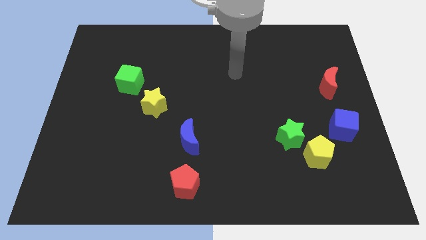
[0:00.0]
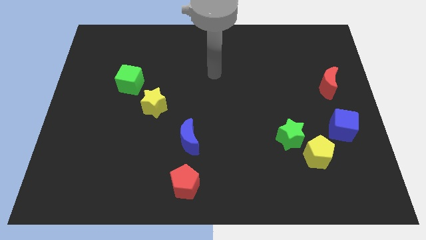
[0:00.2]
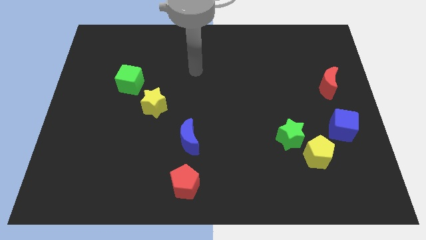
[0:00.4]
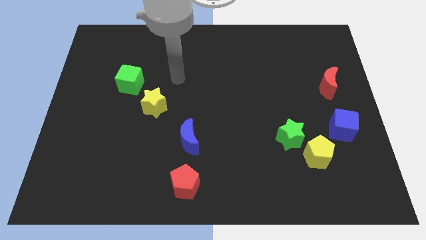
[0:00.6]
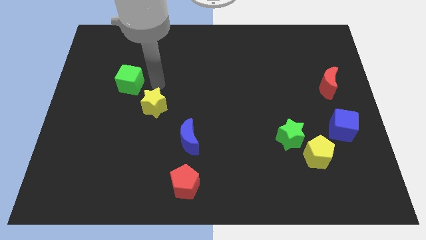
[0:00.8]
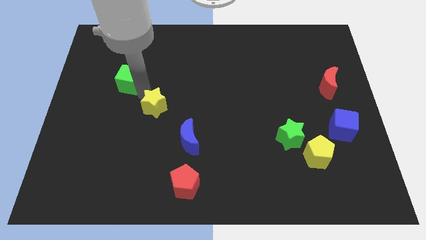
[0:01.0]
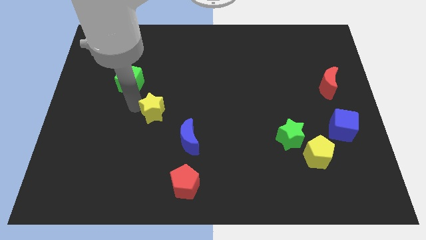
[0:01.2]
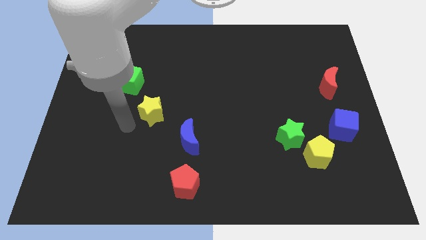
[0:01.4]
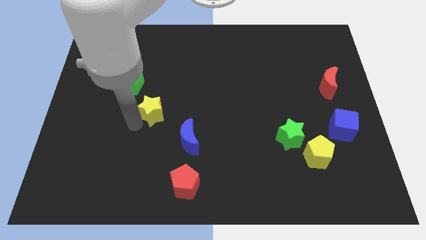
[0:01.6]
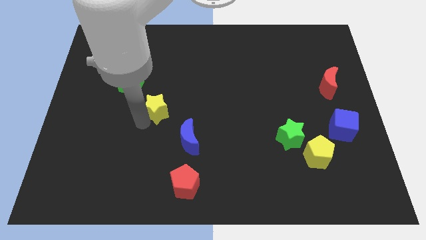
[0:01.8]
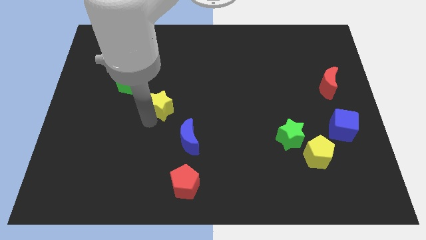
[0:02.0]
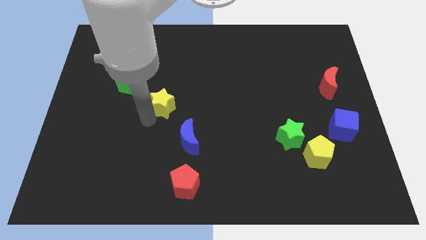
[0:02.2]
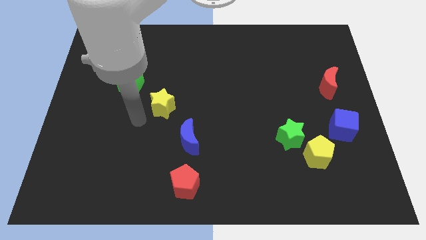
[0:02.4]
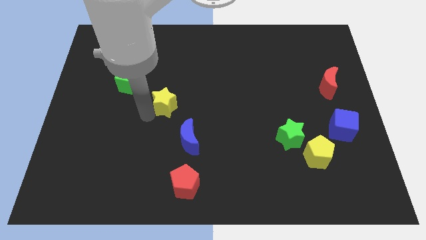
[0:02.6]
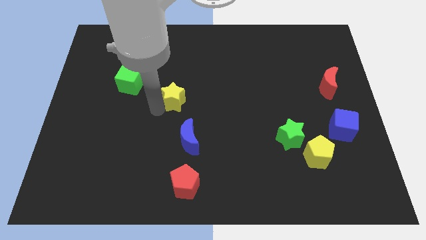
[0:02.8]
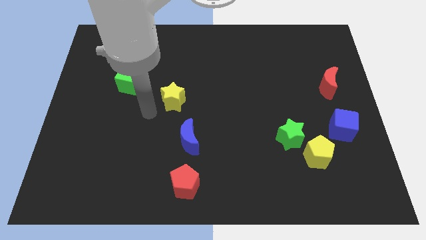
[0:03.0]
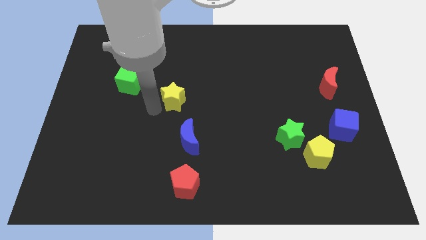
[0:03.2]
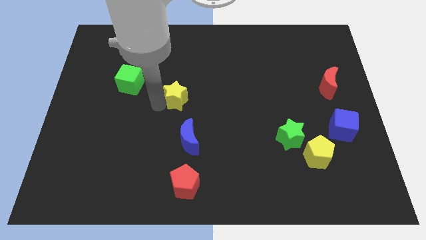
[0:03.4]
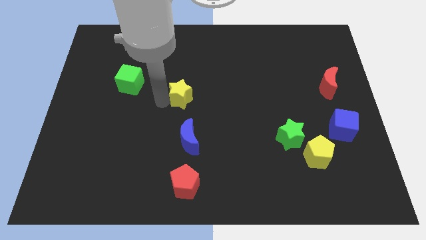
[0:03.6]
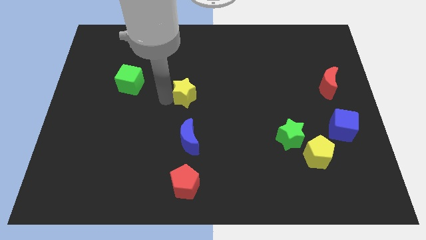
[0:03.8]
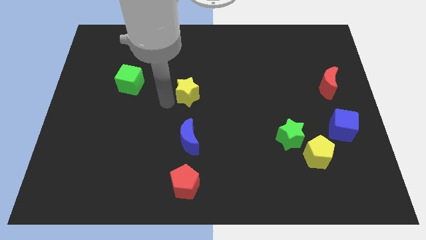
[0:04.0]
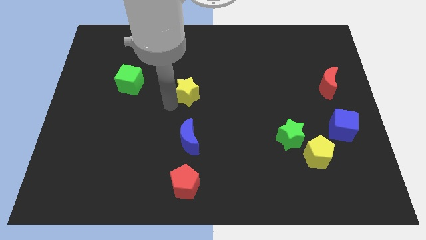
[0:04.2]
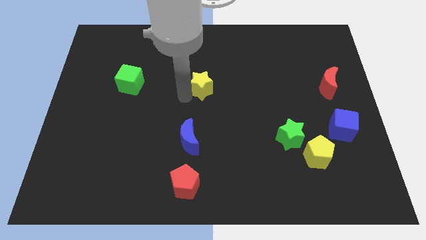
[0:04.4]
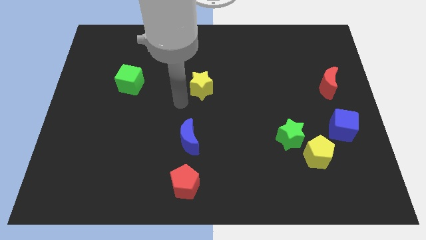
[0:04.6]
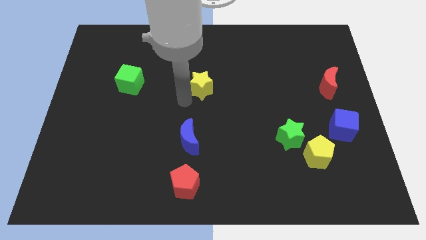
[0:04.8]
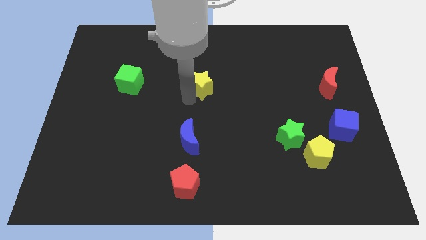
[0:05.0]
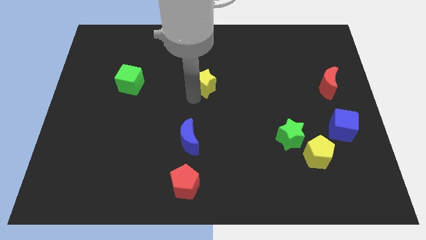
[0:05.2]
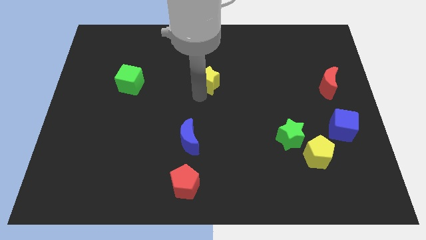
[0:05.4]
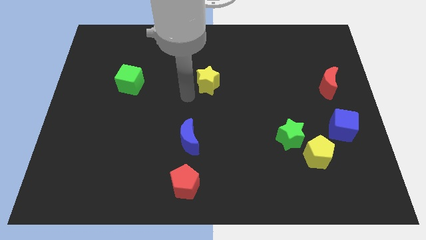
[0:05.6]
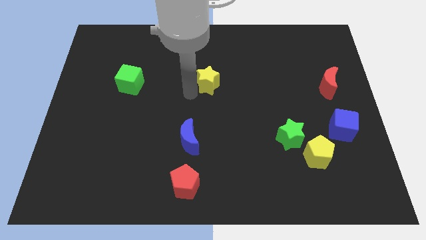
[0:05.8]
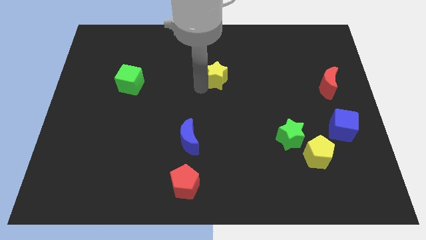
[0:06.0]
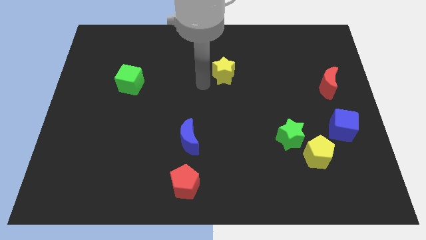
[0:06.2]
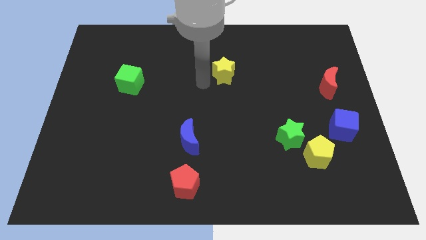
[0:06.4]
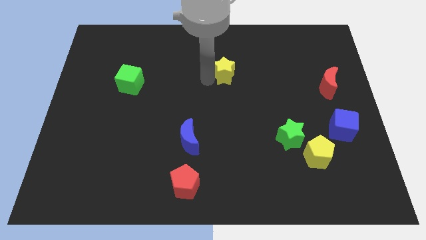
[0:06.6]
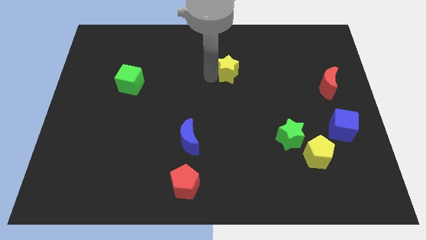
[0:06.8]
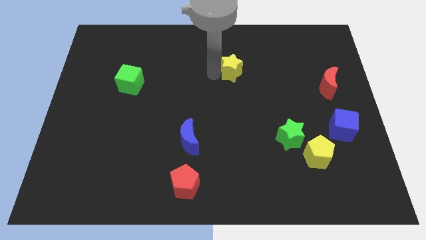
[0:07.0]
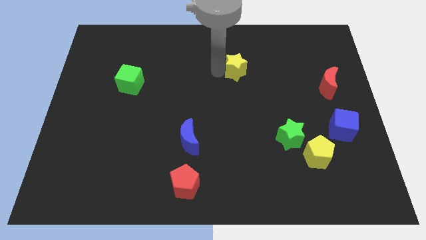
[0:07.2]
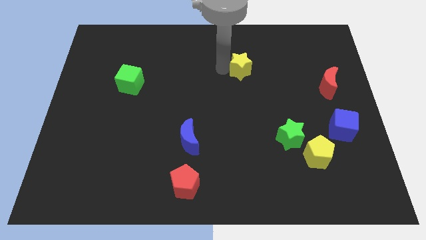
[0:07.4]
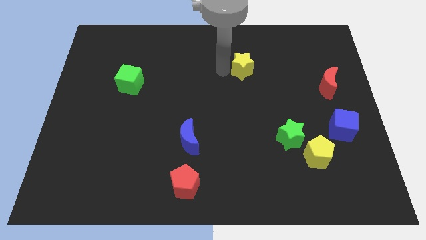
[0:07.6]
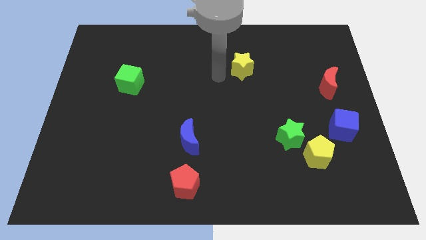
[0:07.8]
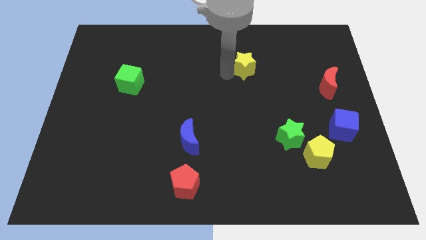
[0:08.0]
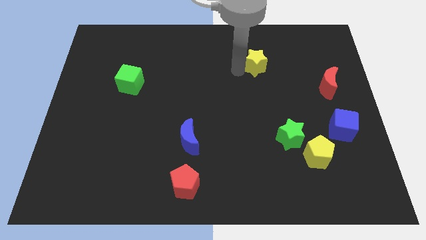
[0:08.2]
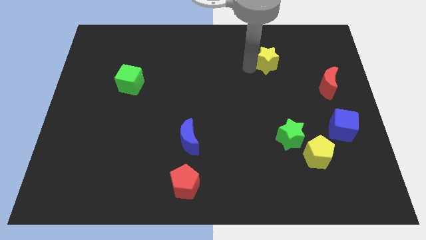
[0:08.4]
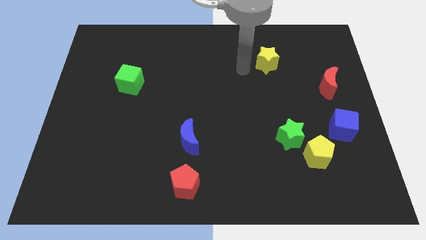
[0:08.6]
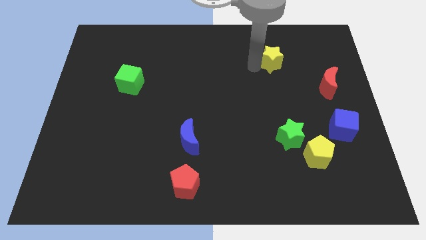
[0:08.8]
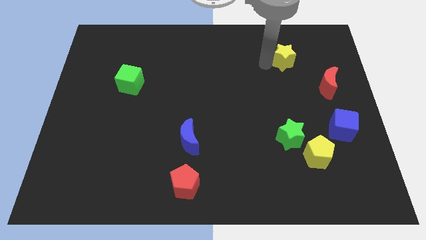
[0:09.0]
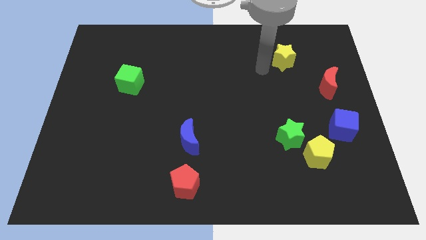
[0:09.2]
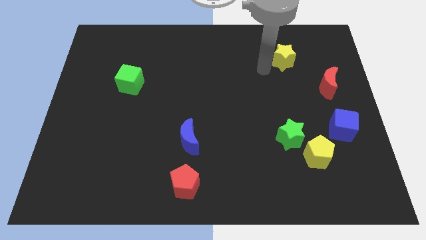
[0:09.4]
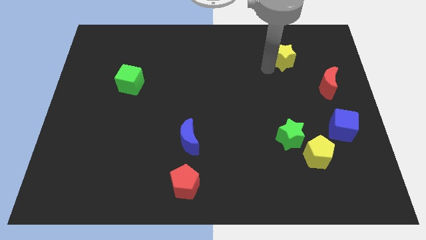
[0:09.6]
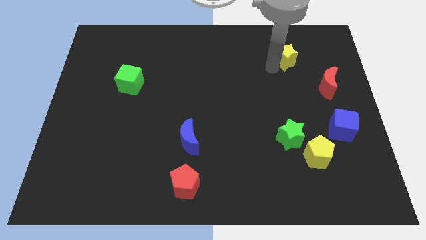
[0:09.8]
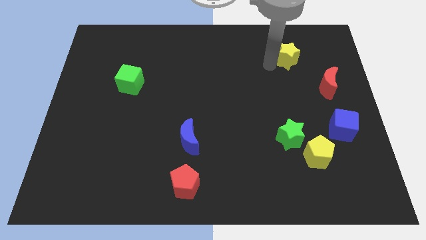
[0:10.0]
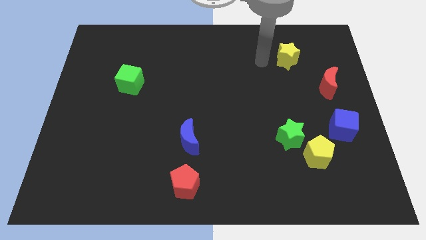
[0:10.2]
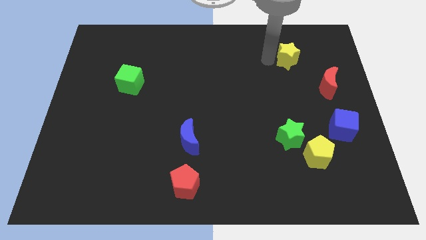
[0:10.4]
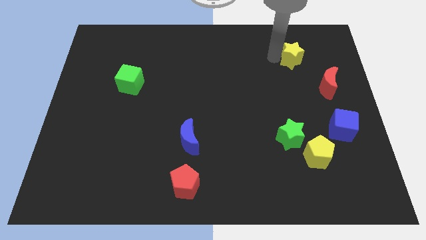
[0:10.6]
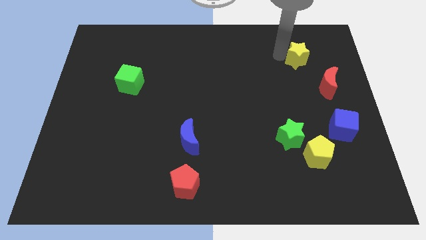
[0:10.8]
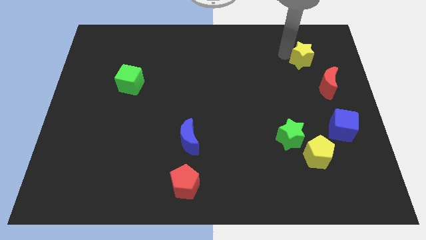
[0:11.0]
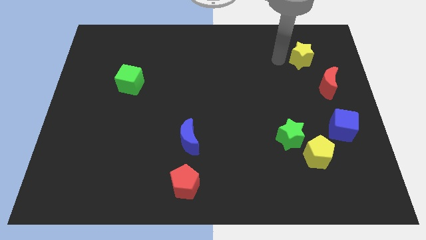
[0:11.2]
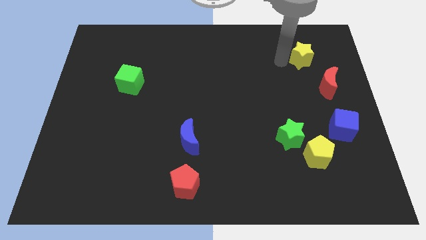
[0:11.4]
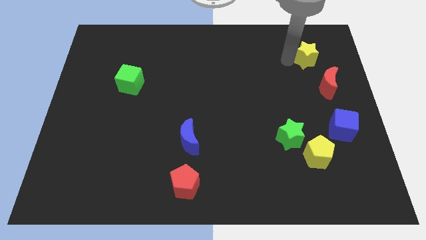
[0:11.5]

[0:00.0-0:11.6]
slide the yellow star to the top side of the red moon
